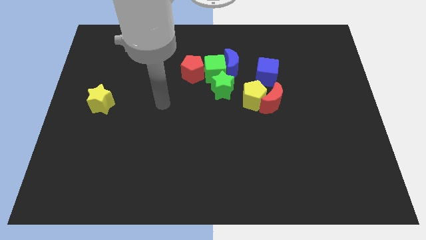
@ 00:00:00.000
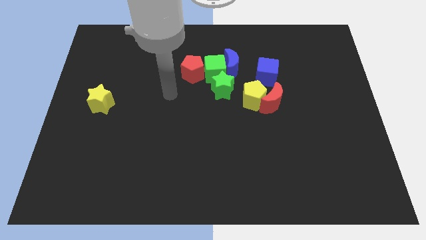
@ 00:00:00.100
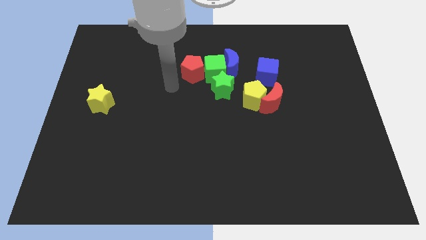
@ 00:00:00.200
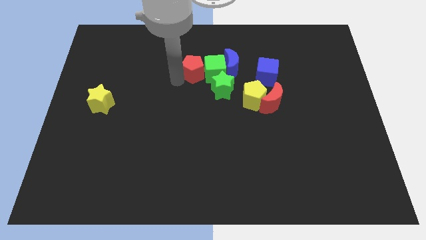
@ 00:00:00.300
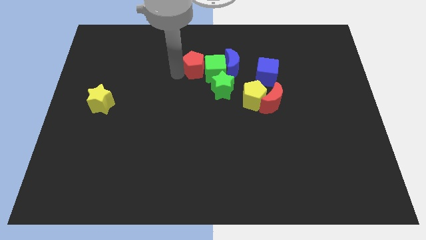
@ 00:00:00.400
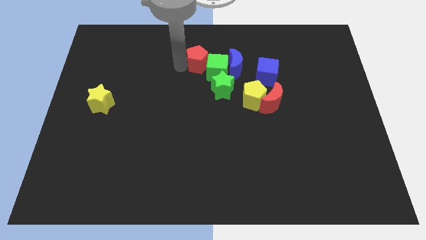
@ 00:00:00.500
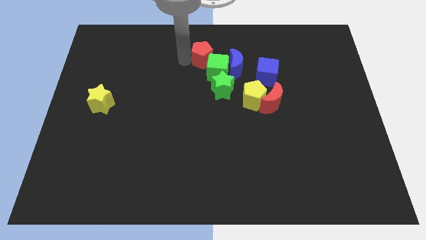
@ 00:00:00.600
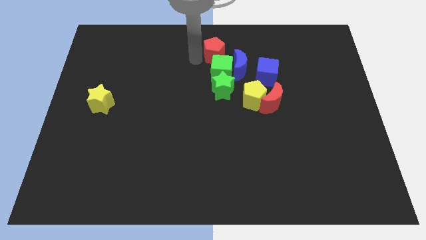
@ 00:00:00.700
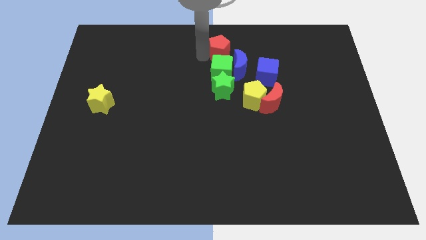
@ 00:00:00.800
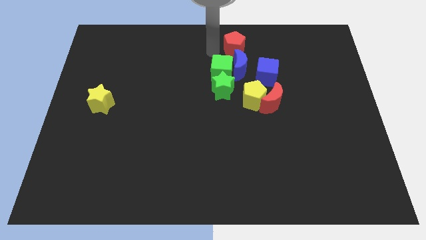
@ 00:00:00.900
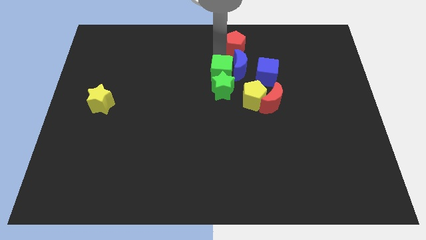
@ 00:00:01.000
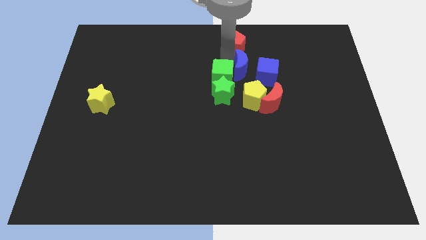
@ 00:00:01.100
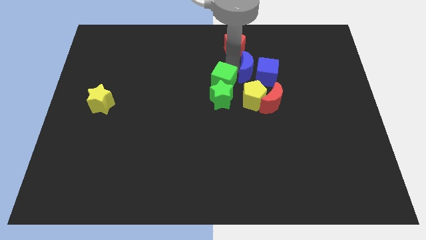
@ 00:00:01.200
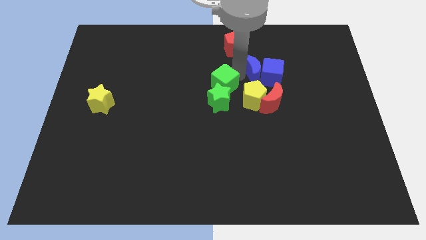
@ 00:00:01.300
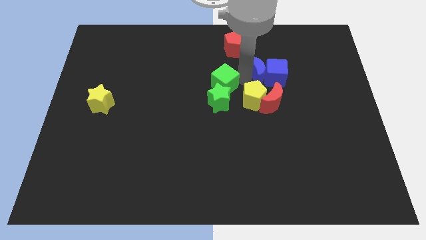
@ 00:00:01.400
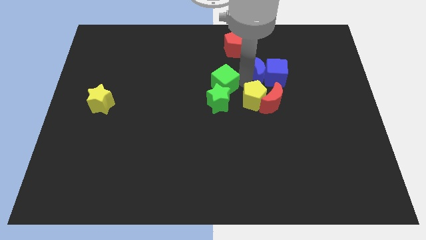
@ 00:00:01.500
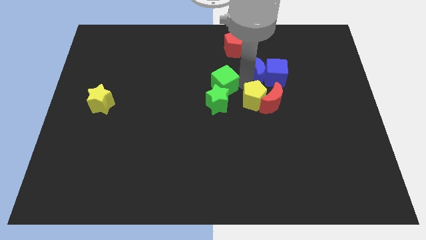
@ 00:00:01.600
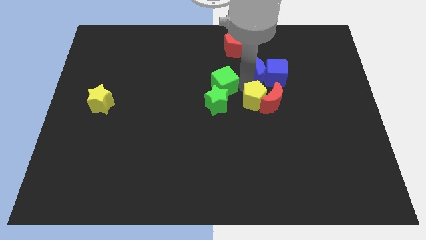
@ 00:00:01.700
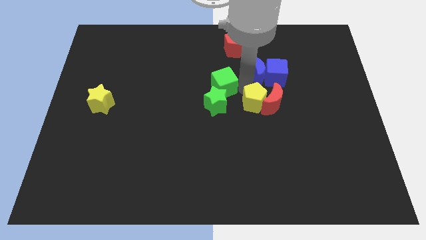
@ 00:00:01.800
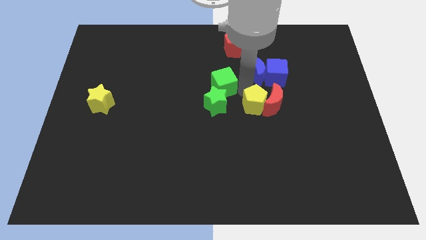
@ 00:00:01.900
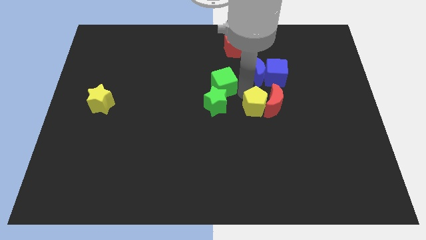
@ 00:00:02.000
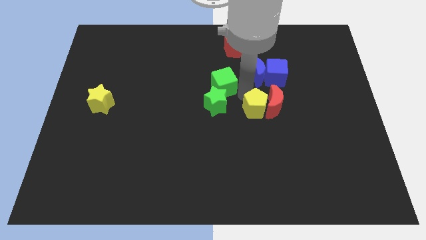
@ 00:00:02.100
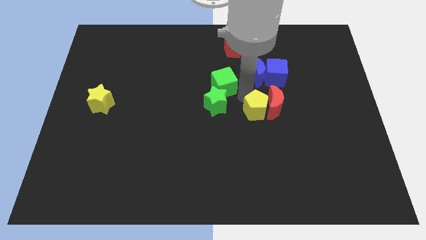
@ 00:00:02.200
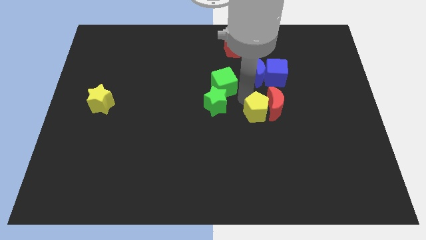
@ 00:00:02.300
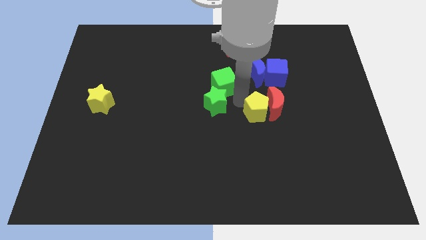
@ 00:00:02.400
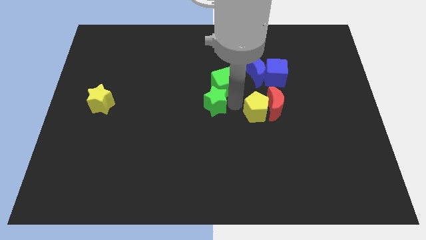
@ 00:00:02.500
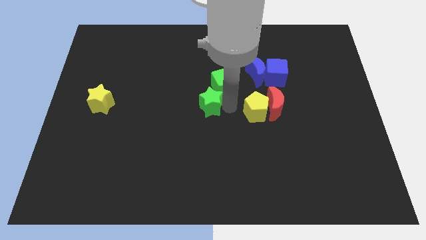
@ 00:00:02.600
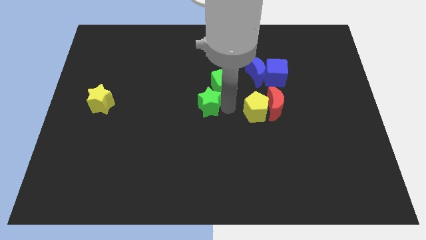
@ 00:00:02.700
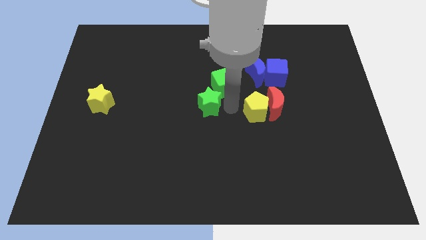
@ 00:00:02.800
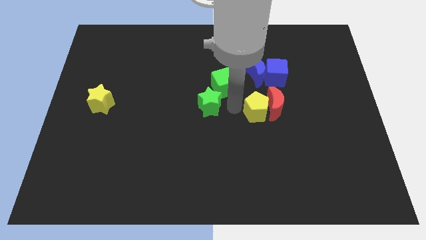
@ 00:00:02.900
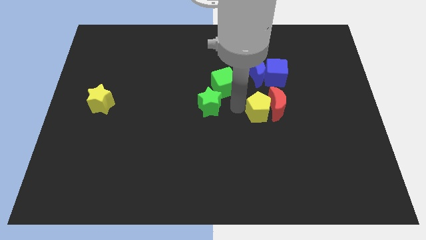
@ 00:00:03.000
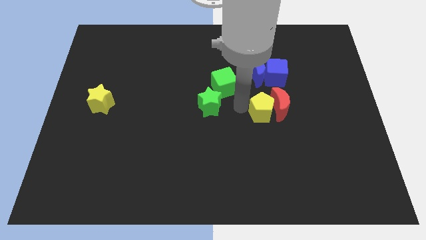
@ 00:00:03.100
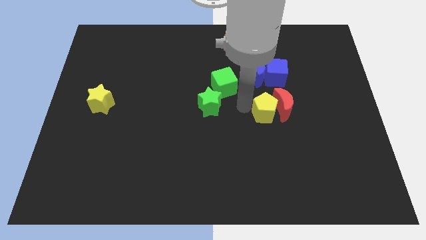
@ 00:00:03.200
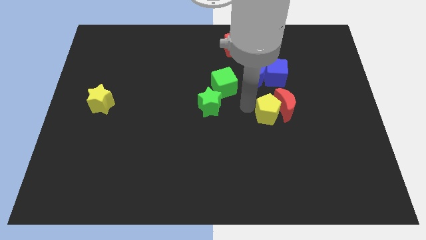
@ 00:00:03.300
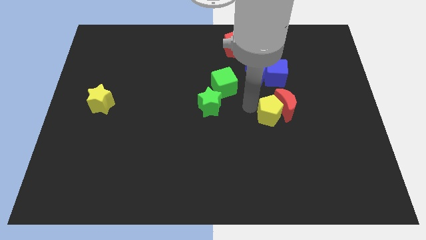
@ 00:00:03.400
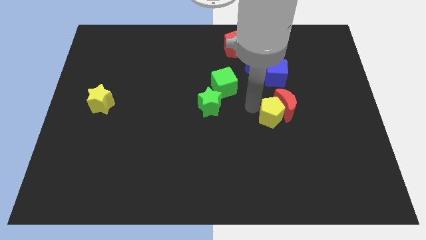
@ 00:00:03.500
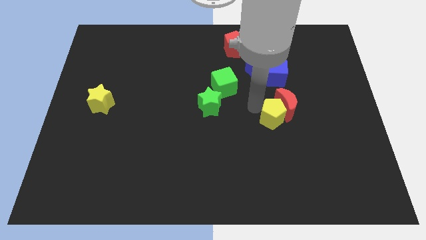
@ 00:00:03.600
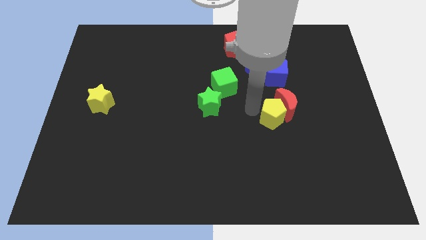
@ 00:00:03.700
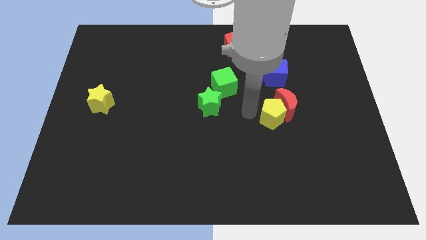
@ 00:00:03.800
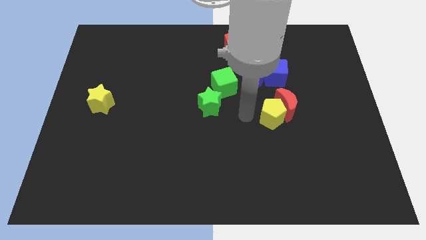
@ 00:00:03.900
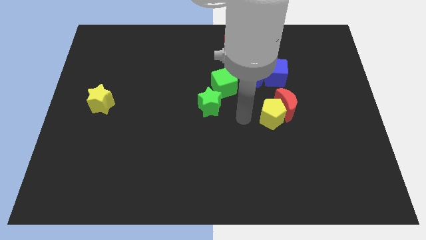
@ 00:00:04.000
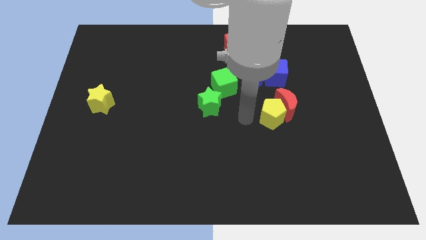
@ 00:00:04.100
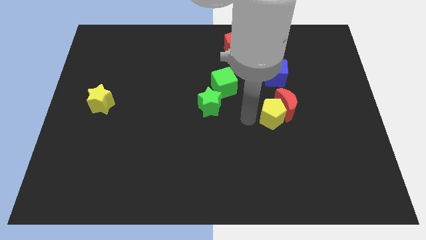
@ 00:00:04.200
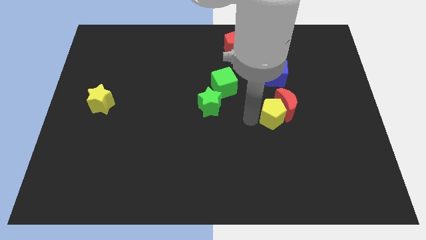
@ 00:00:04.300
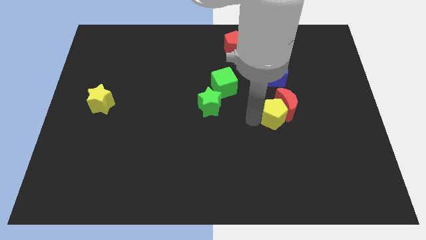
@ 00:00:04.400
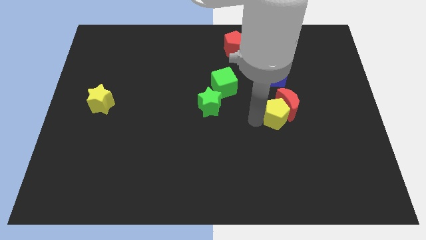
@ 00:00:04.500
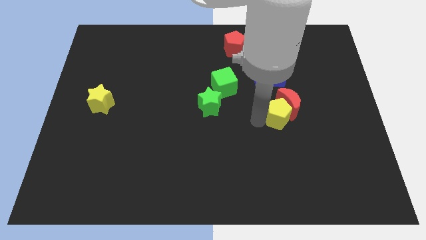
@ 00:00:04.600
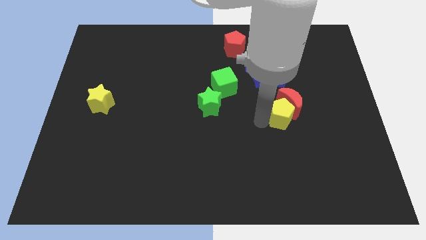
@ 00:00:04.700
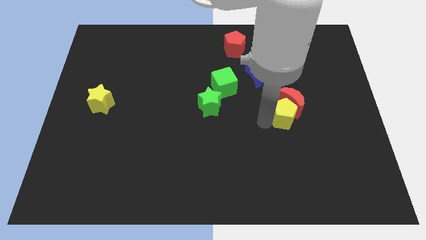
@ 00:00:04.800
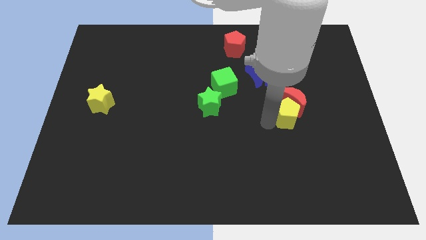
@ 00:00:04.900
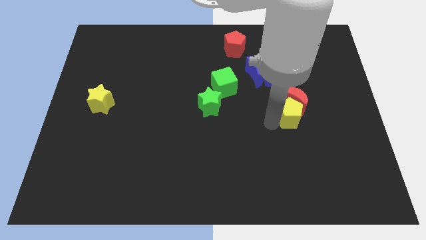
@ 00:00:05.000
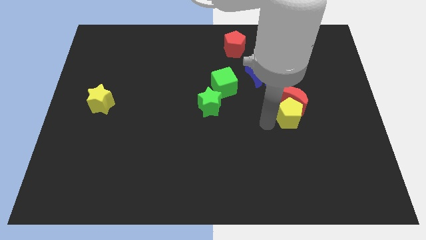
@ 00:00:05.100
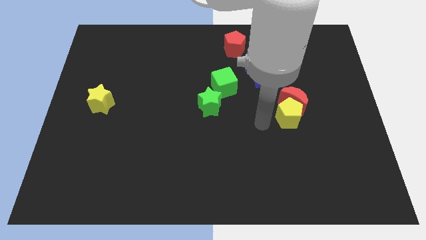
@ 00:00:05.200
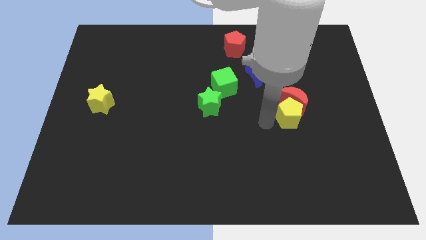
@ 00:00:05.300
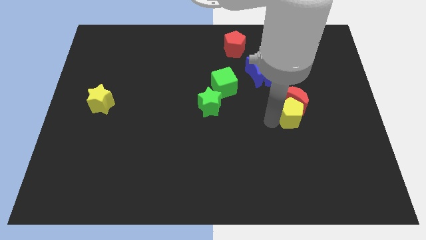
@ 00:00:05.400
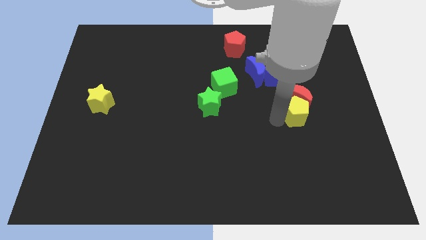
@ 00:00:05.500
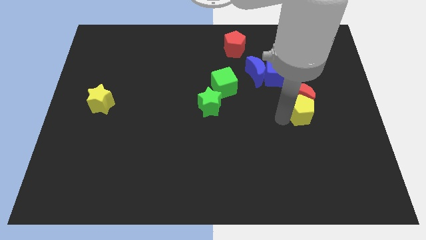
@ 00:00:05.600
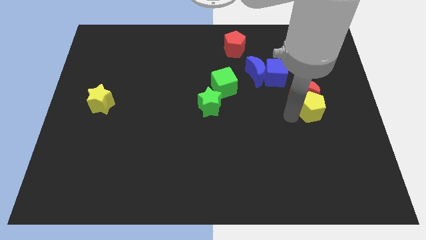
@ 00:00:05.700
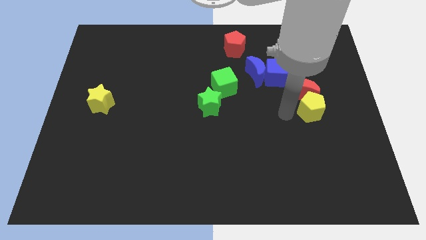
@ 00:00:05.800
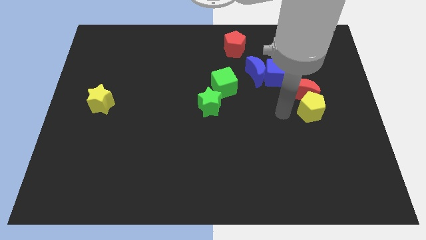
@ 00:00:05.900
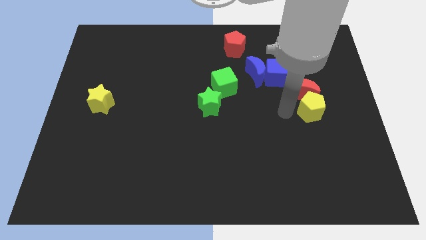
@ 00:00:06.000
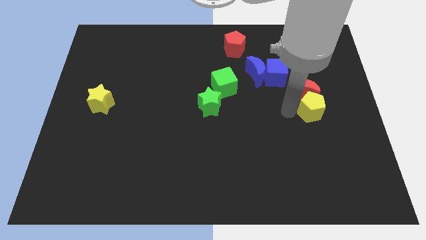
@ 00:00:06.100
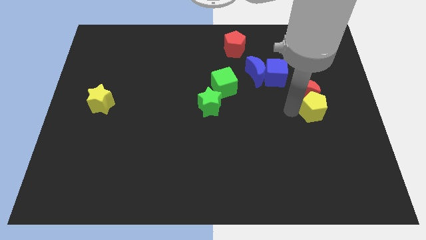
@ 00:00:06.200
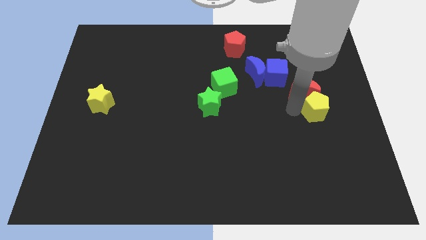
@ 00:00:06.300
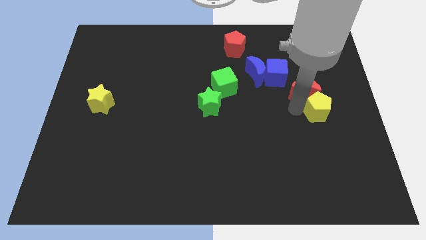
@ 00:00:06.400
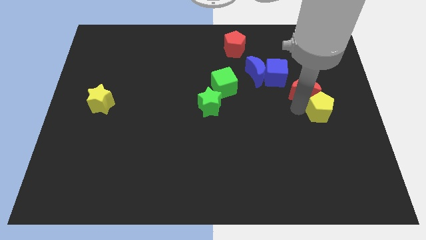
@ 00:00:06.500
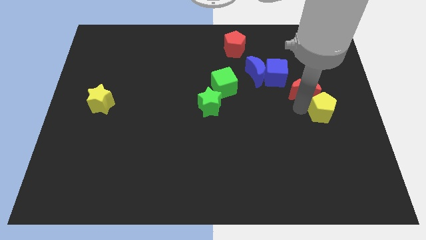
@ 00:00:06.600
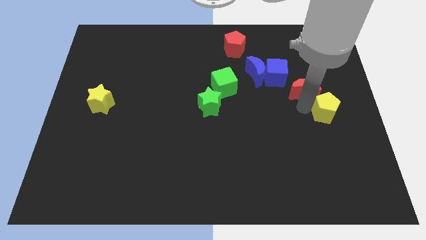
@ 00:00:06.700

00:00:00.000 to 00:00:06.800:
slide the yellow pentagon to the right side of the board
